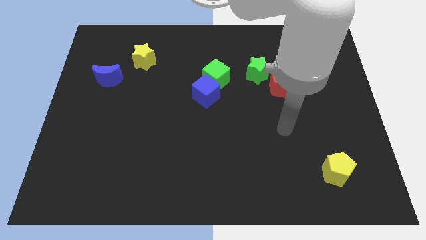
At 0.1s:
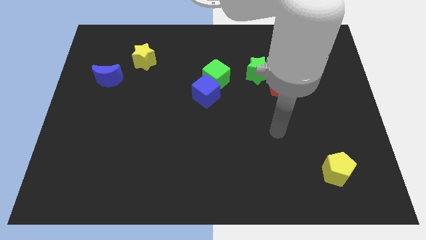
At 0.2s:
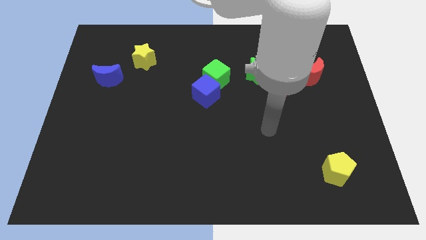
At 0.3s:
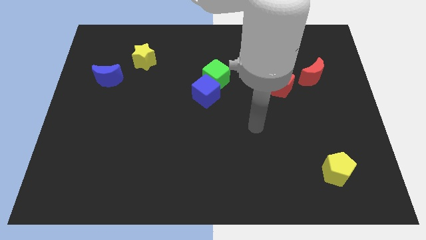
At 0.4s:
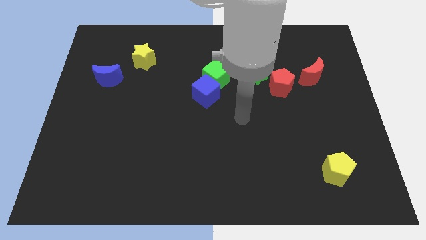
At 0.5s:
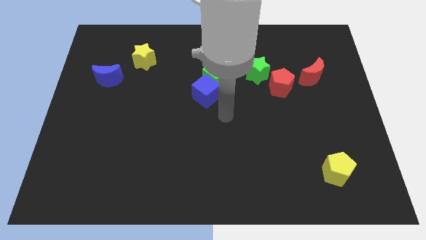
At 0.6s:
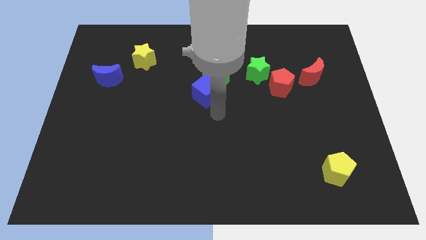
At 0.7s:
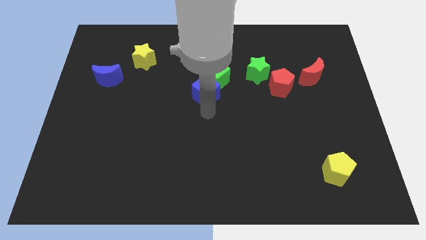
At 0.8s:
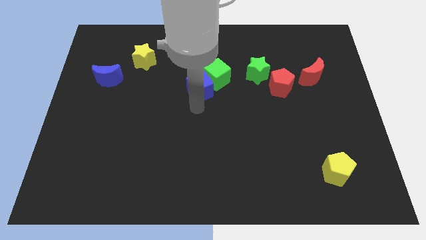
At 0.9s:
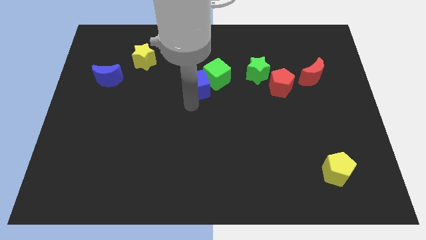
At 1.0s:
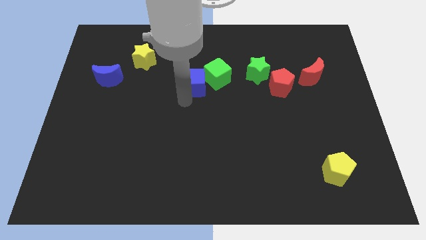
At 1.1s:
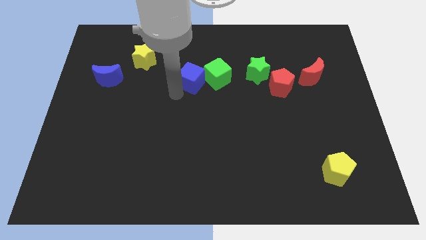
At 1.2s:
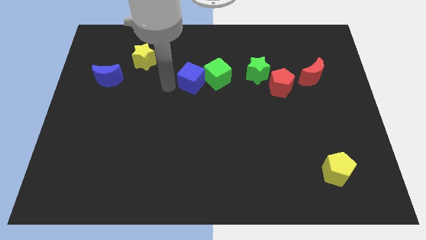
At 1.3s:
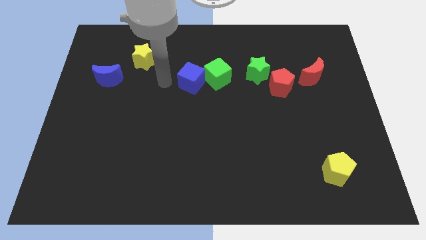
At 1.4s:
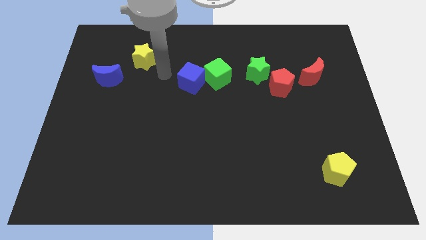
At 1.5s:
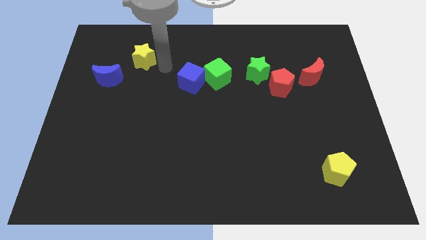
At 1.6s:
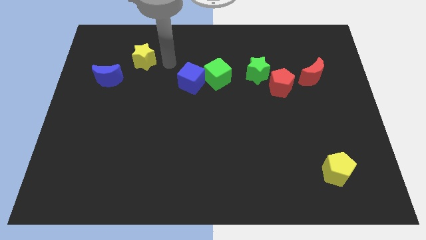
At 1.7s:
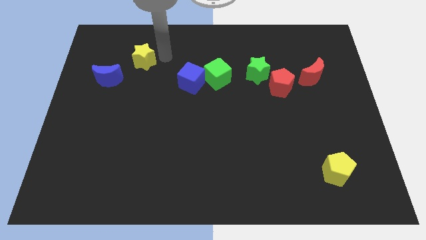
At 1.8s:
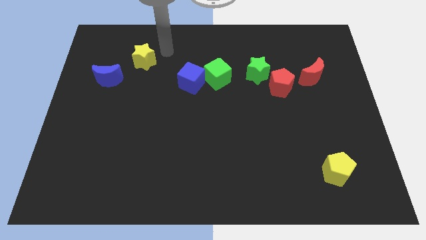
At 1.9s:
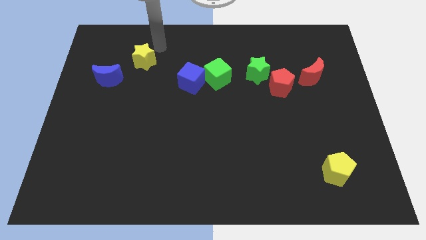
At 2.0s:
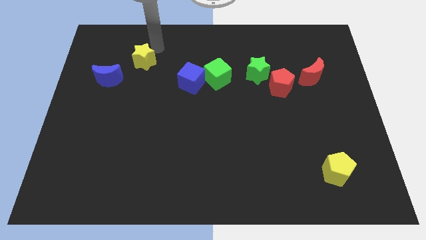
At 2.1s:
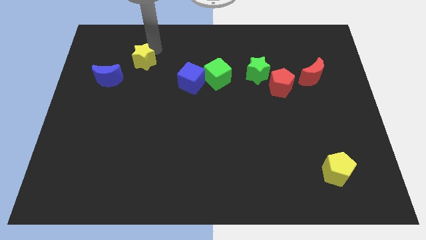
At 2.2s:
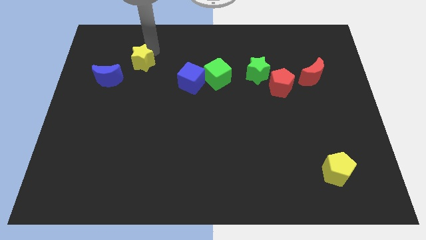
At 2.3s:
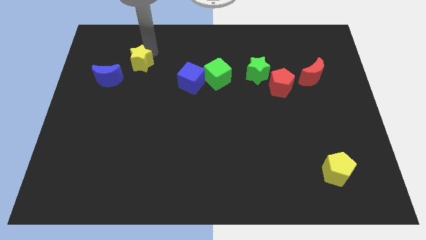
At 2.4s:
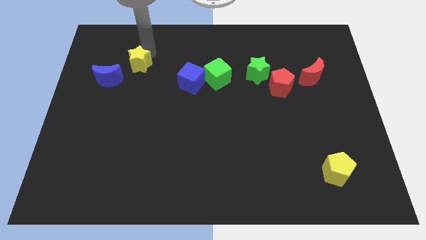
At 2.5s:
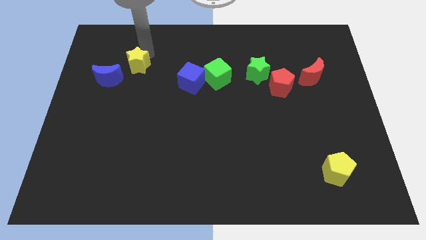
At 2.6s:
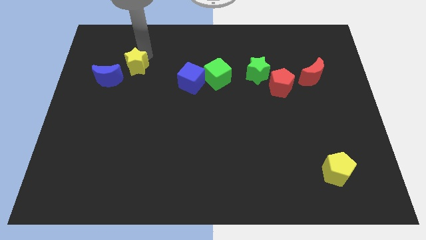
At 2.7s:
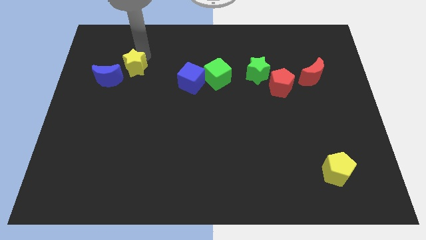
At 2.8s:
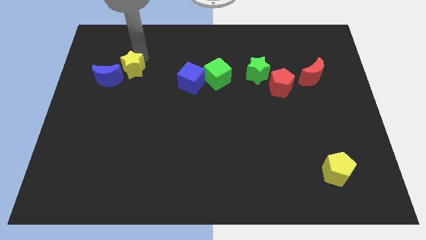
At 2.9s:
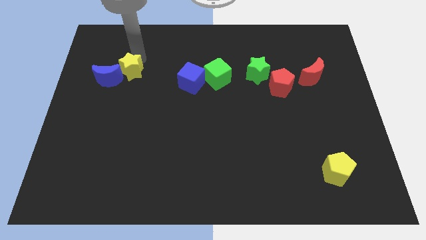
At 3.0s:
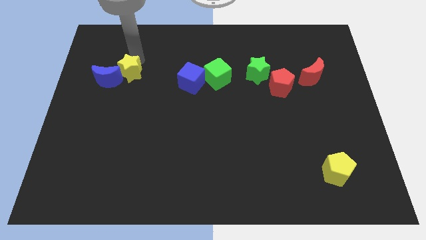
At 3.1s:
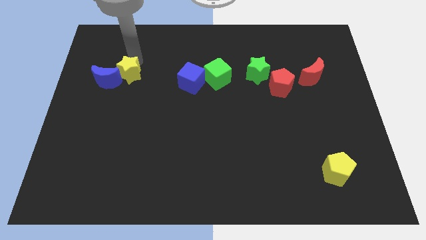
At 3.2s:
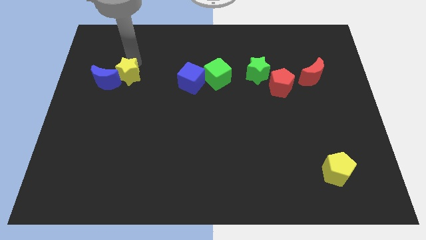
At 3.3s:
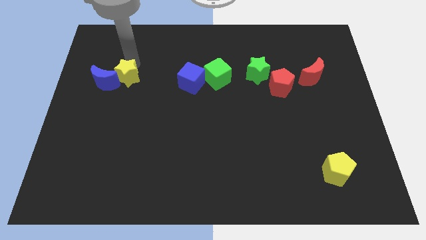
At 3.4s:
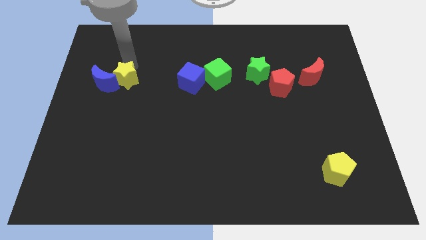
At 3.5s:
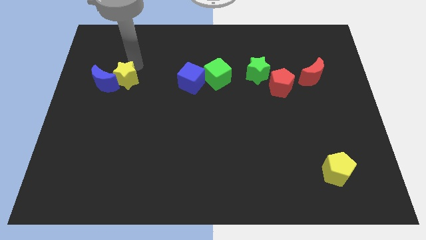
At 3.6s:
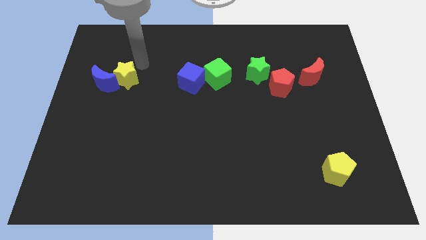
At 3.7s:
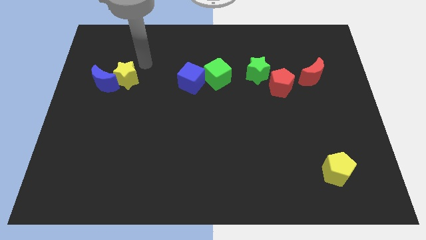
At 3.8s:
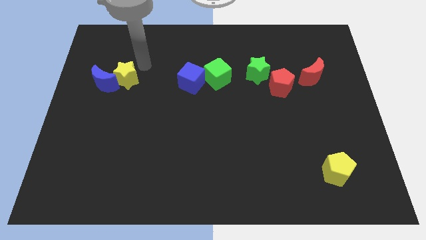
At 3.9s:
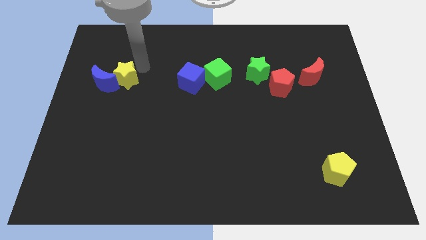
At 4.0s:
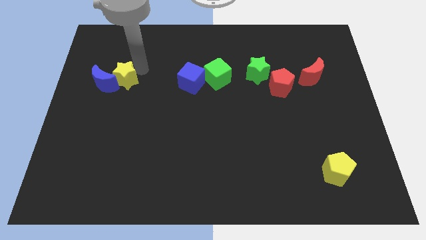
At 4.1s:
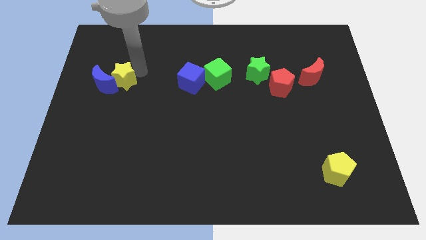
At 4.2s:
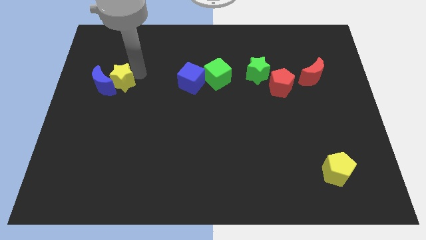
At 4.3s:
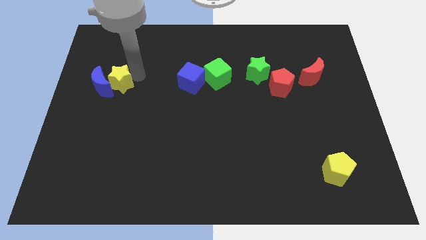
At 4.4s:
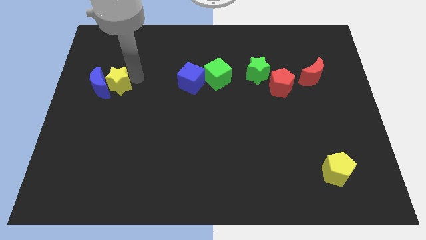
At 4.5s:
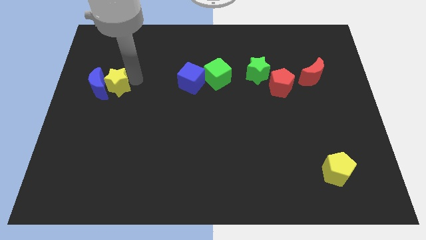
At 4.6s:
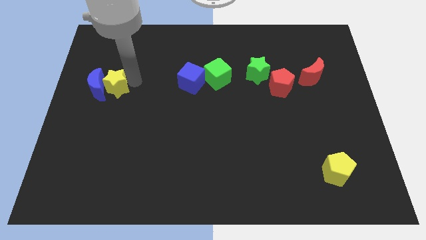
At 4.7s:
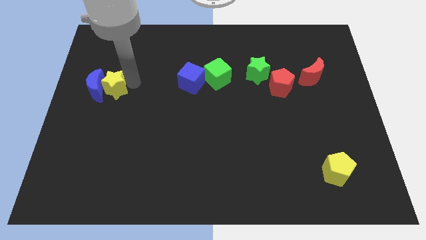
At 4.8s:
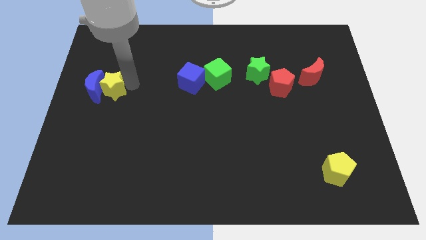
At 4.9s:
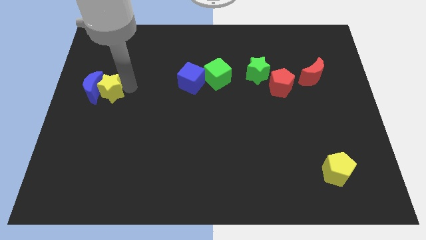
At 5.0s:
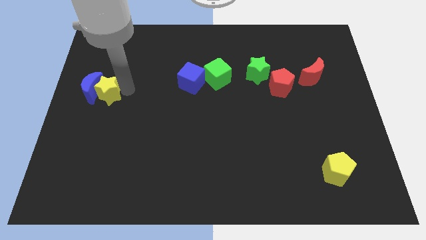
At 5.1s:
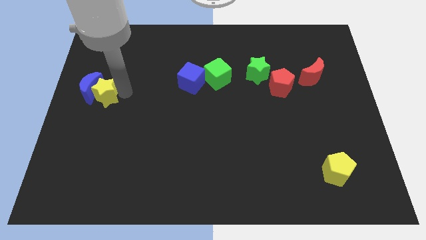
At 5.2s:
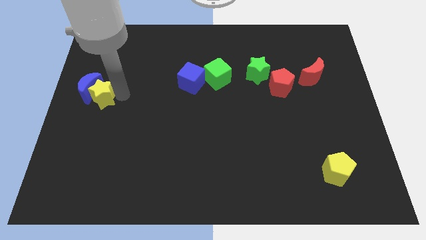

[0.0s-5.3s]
move the yellow star to the bottom of the blue moon

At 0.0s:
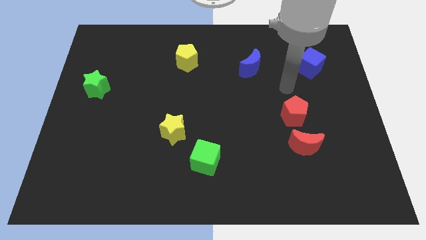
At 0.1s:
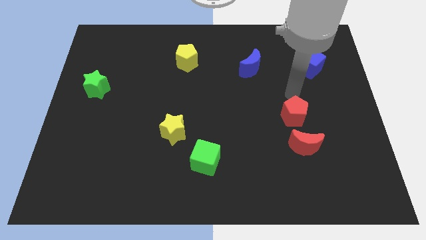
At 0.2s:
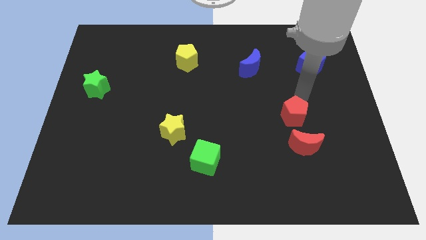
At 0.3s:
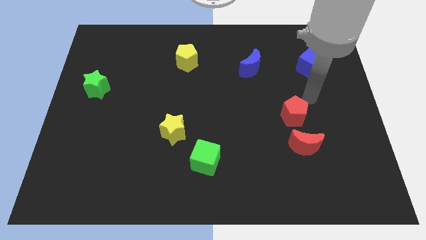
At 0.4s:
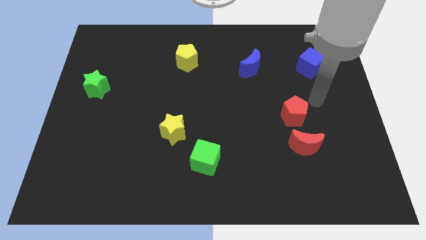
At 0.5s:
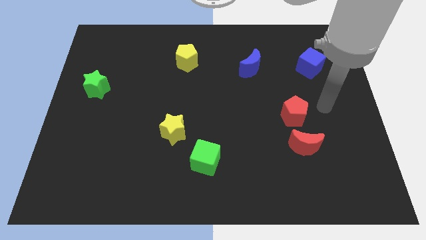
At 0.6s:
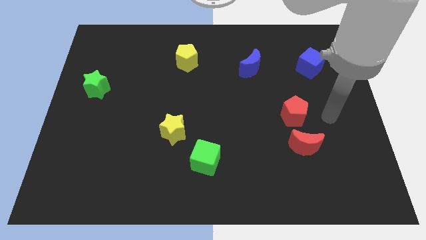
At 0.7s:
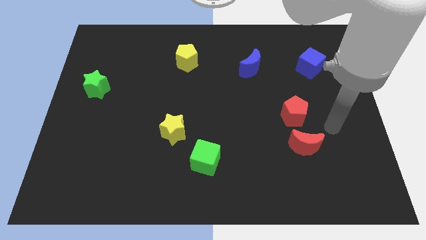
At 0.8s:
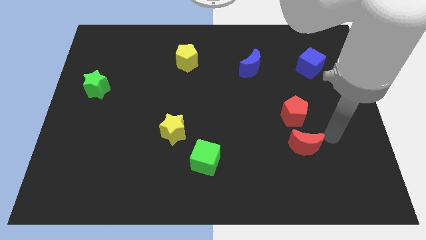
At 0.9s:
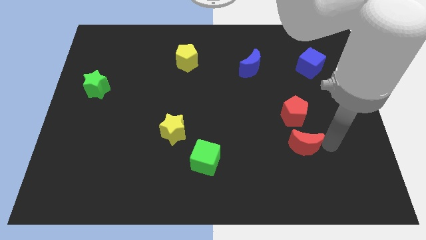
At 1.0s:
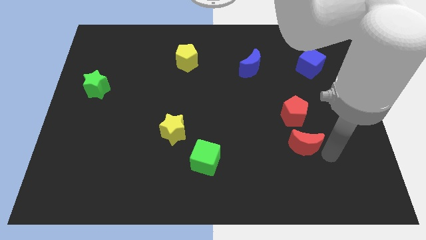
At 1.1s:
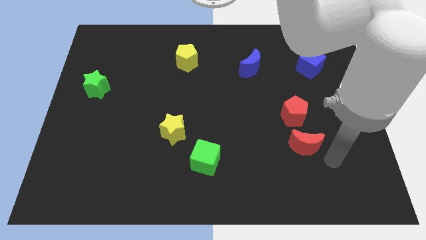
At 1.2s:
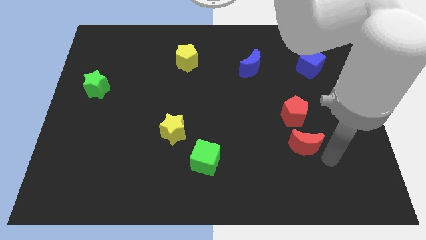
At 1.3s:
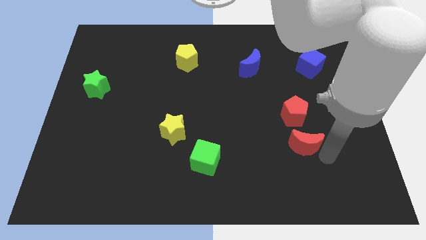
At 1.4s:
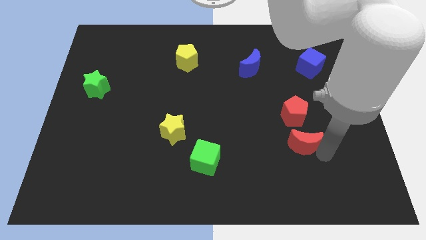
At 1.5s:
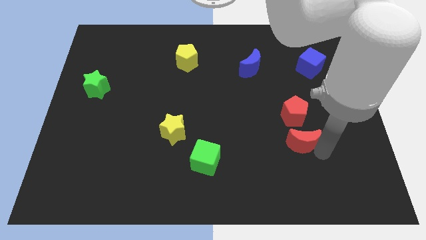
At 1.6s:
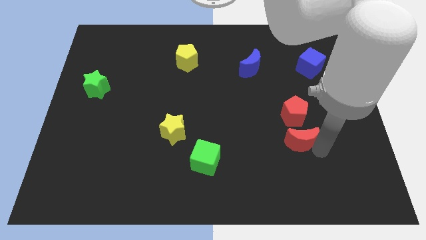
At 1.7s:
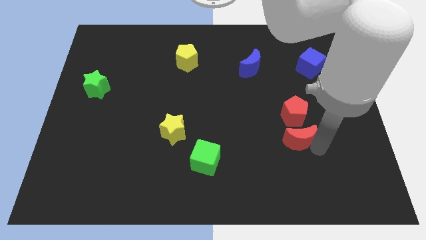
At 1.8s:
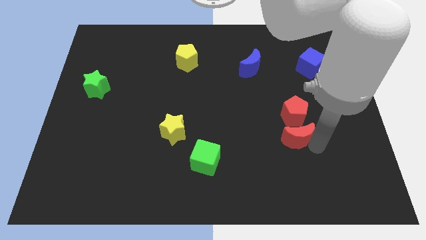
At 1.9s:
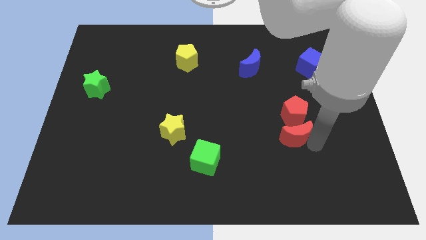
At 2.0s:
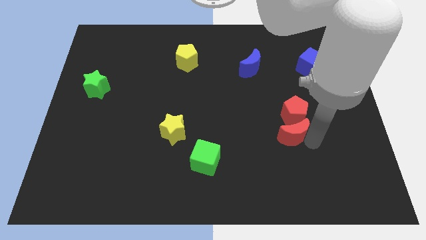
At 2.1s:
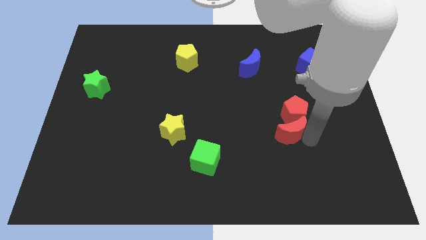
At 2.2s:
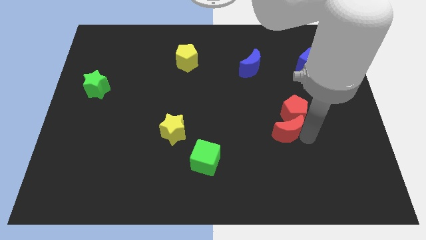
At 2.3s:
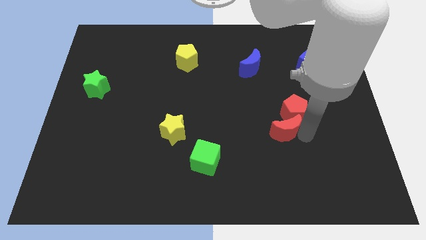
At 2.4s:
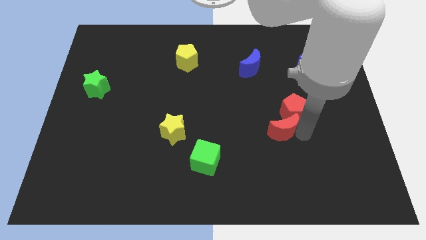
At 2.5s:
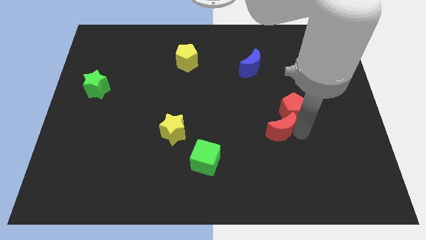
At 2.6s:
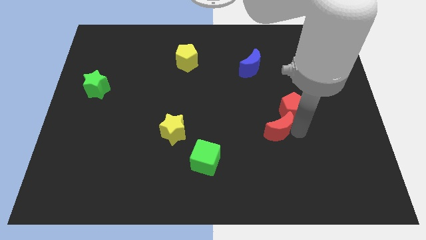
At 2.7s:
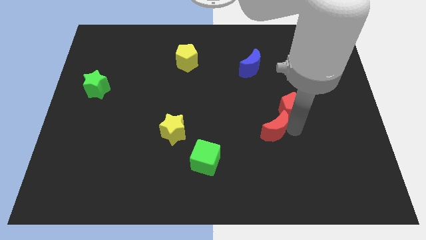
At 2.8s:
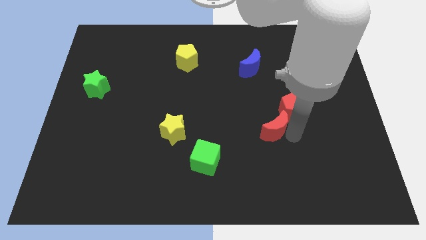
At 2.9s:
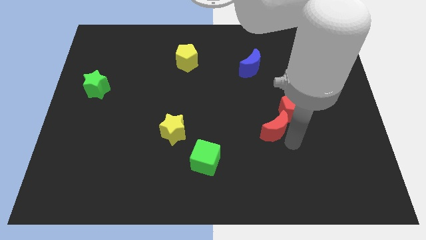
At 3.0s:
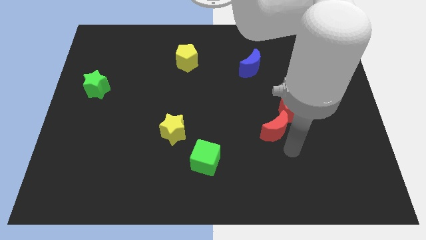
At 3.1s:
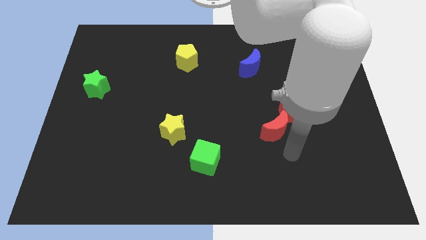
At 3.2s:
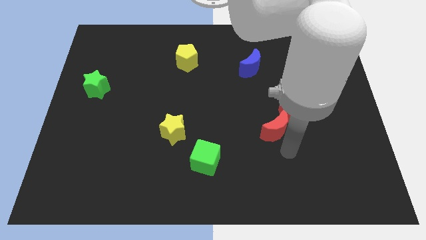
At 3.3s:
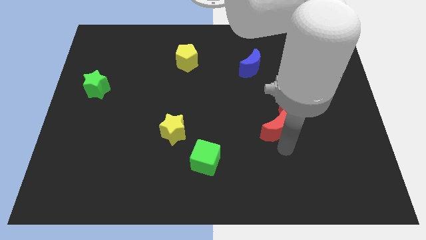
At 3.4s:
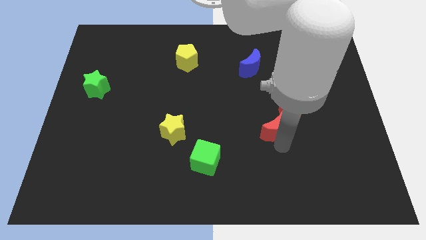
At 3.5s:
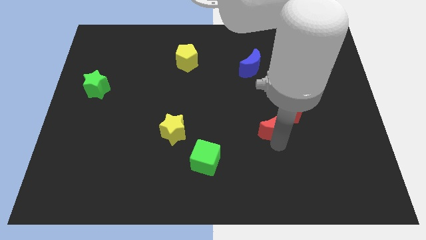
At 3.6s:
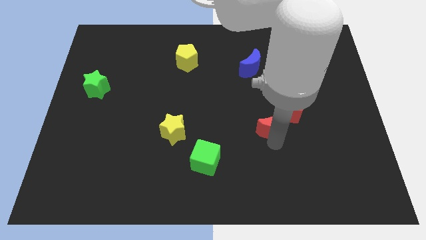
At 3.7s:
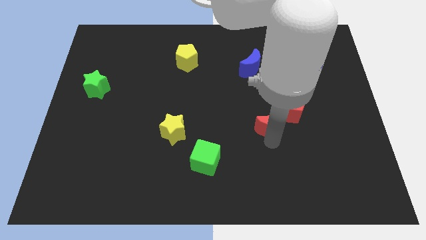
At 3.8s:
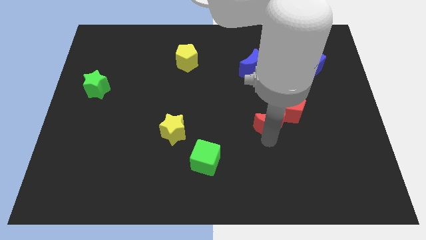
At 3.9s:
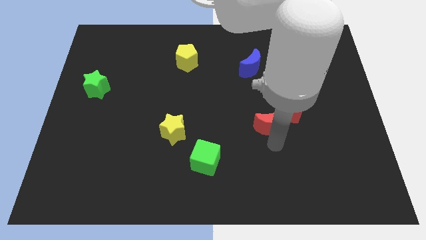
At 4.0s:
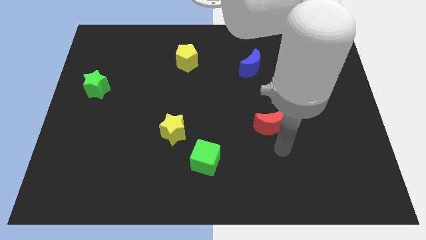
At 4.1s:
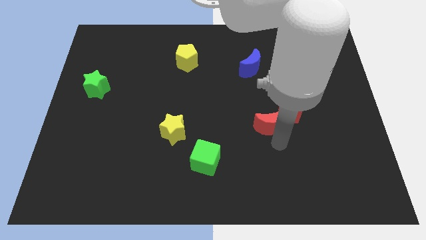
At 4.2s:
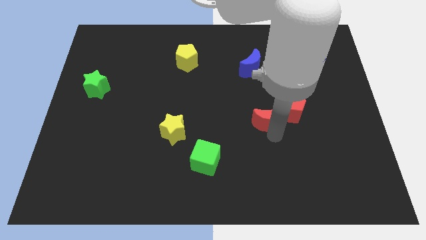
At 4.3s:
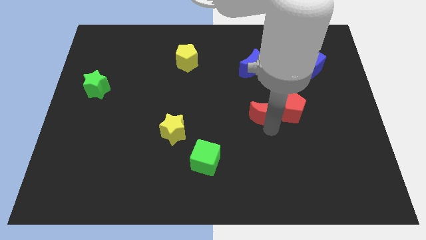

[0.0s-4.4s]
push the red moon to the bottom side of the blue moon
